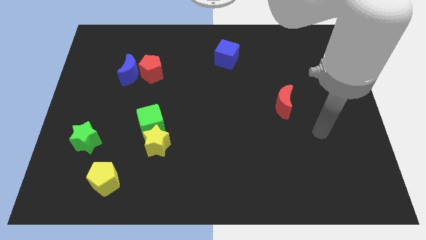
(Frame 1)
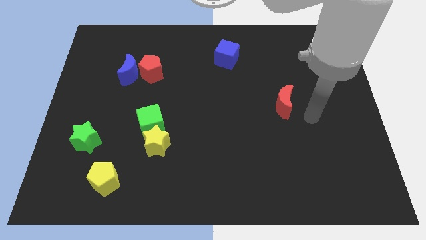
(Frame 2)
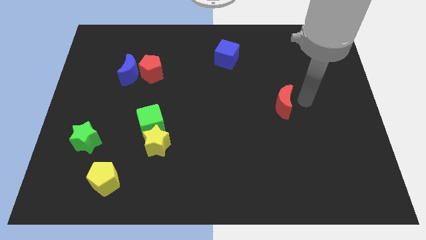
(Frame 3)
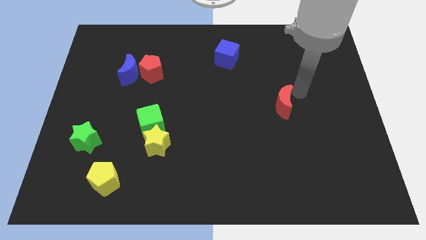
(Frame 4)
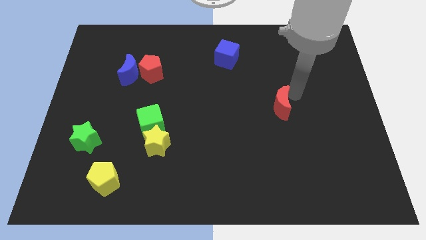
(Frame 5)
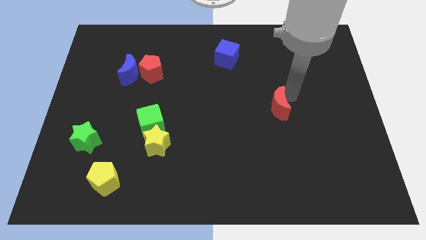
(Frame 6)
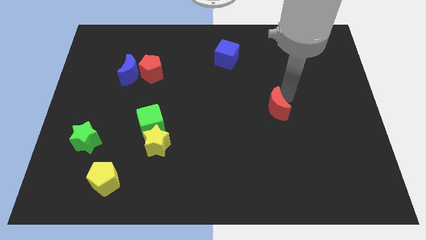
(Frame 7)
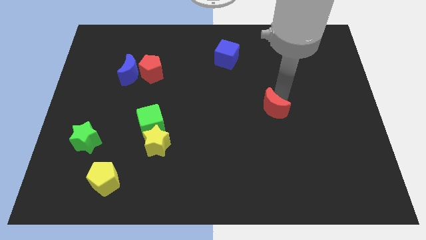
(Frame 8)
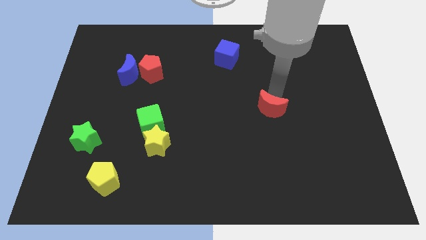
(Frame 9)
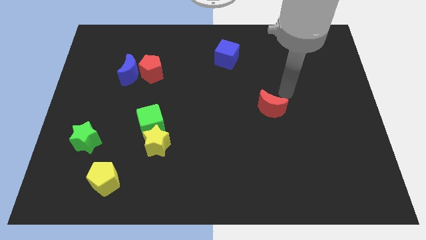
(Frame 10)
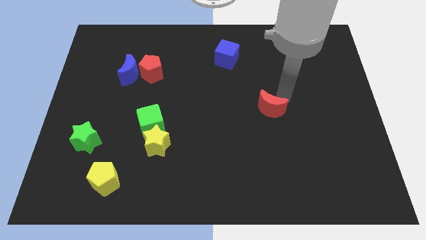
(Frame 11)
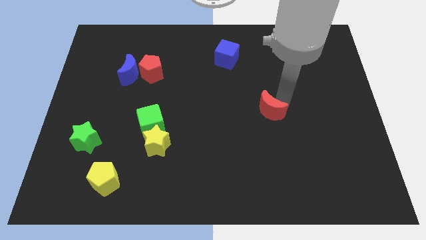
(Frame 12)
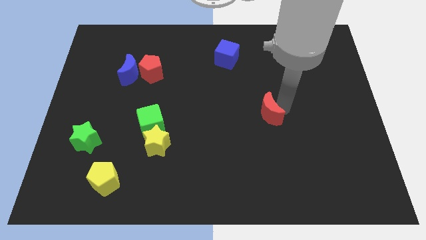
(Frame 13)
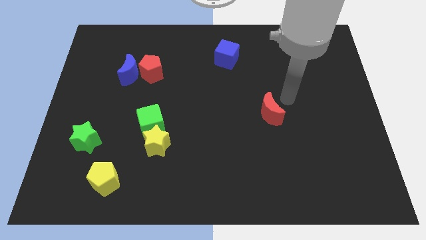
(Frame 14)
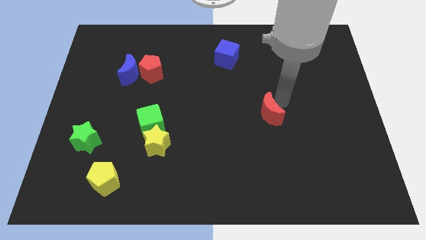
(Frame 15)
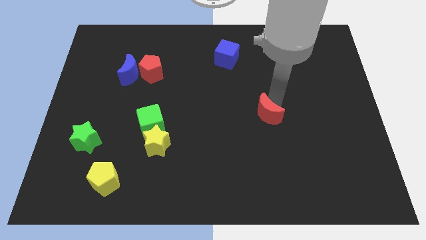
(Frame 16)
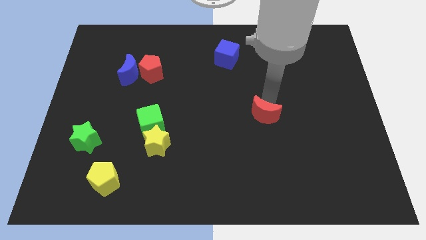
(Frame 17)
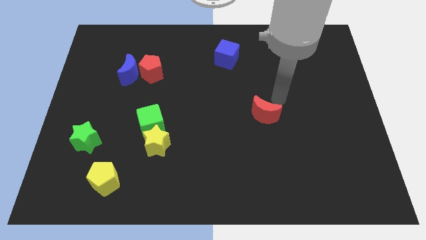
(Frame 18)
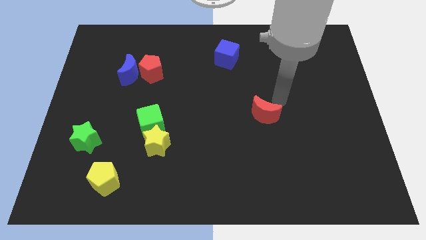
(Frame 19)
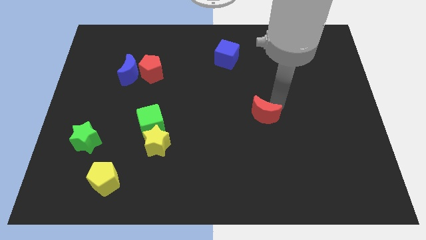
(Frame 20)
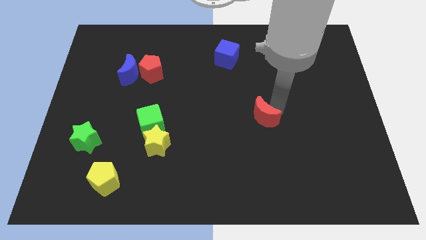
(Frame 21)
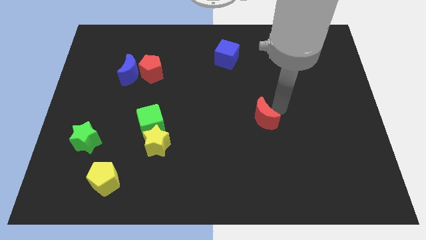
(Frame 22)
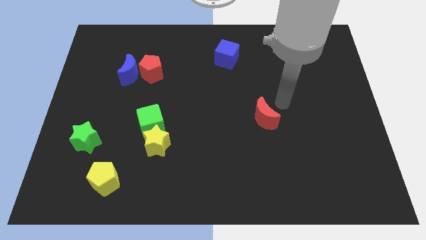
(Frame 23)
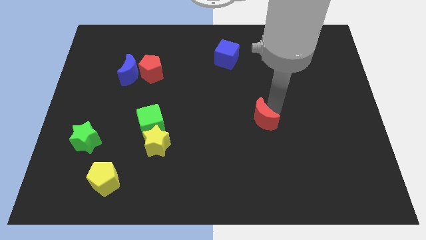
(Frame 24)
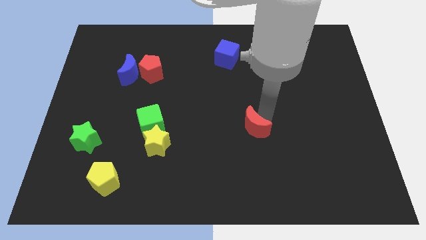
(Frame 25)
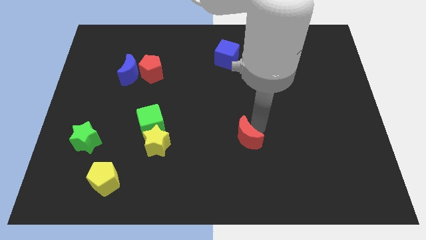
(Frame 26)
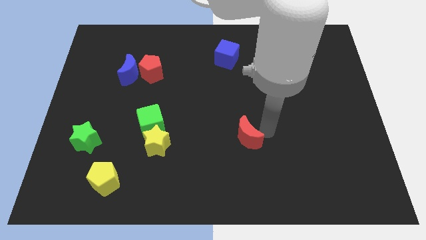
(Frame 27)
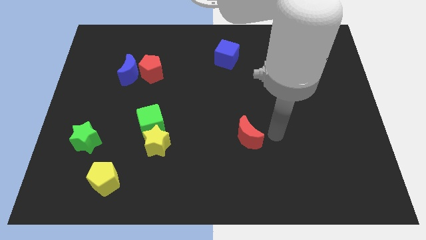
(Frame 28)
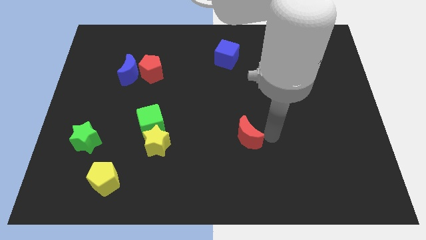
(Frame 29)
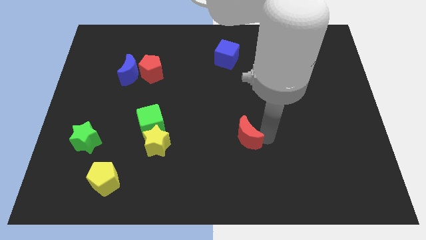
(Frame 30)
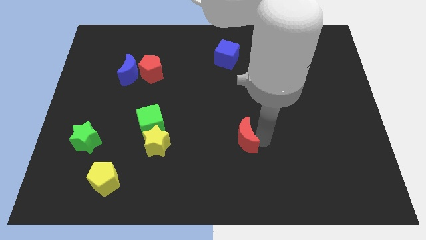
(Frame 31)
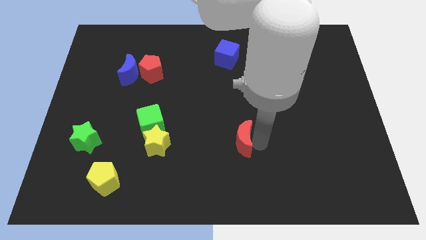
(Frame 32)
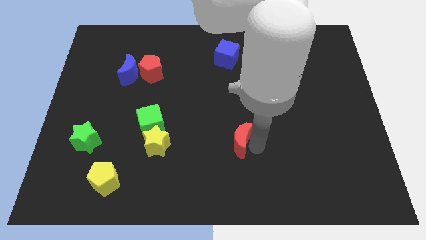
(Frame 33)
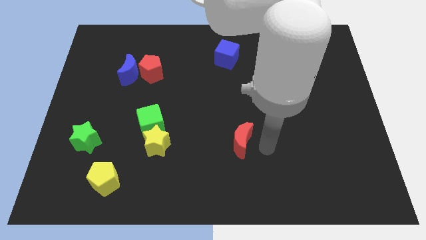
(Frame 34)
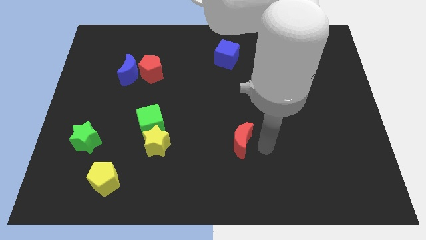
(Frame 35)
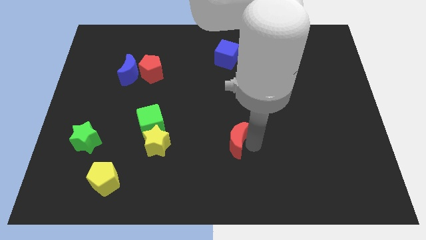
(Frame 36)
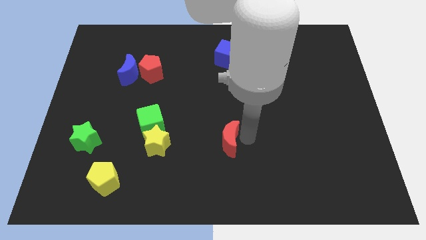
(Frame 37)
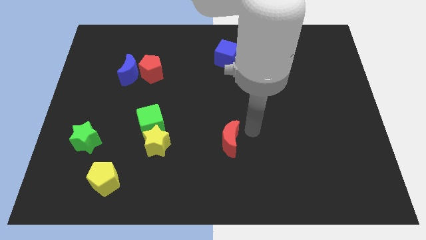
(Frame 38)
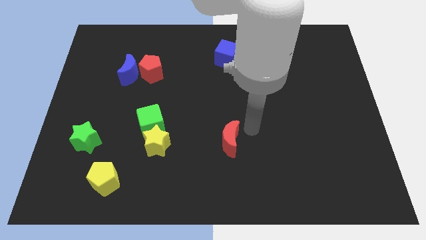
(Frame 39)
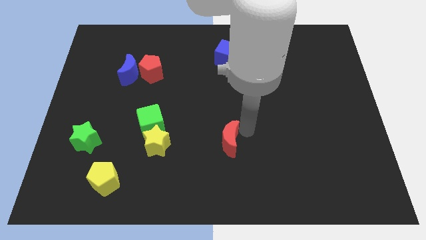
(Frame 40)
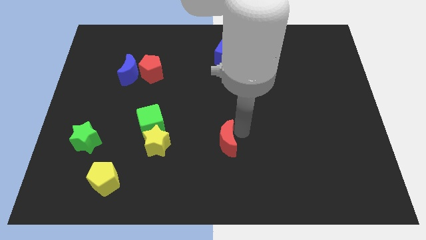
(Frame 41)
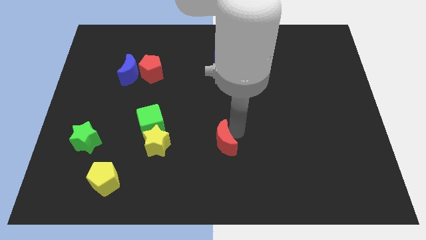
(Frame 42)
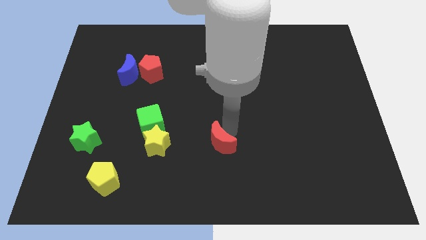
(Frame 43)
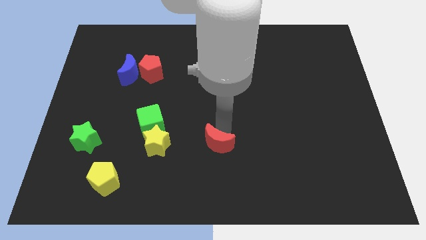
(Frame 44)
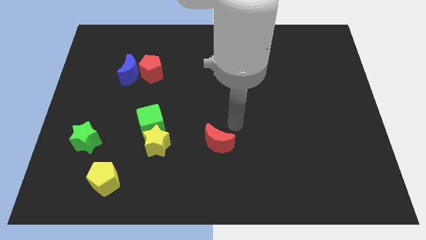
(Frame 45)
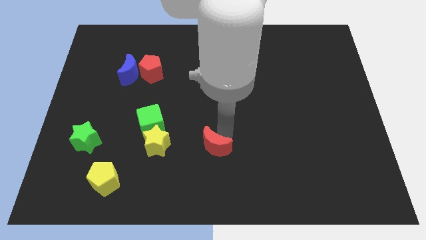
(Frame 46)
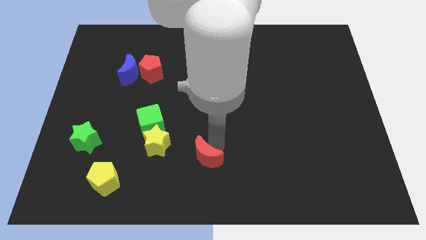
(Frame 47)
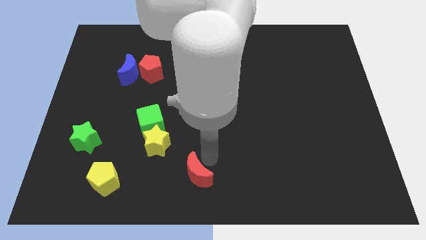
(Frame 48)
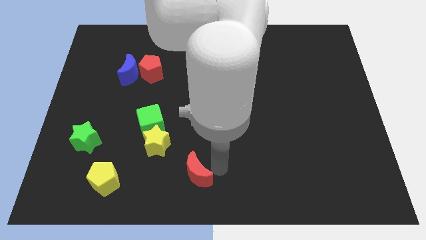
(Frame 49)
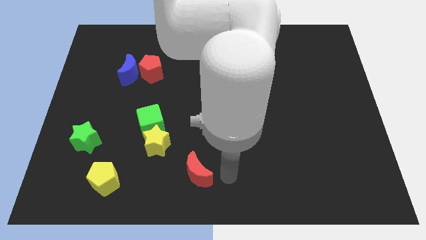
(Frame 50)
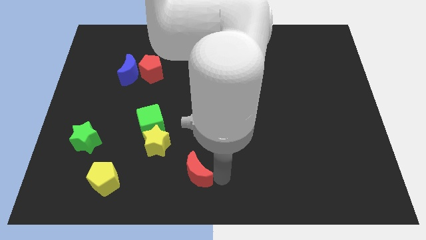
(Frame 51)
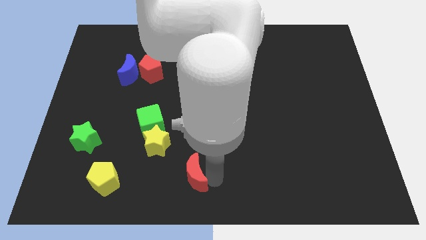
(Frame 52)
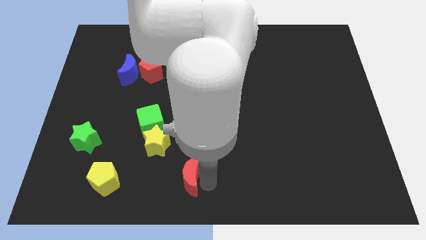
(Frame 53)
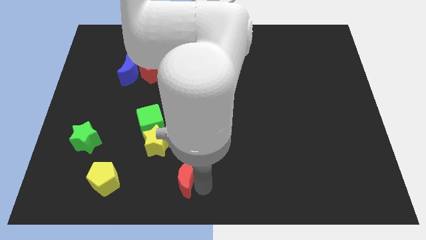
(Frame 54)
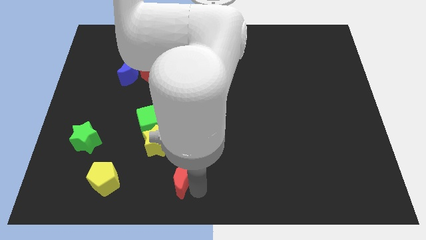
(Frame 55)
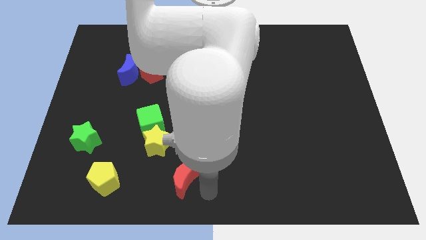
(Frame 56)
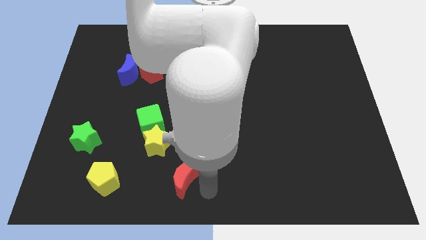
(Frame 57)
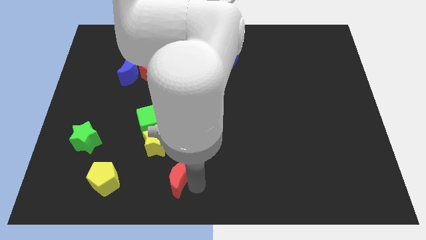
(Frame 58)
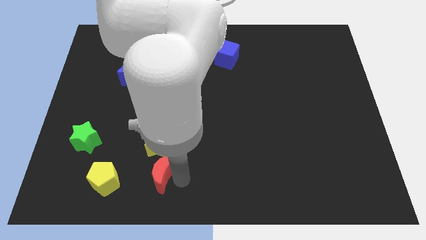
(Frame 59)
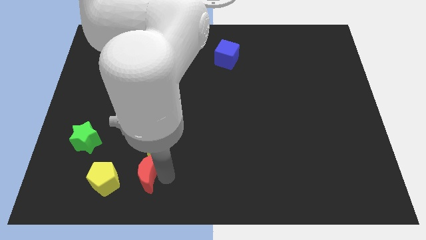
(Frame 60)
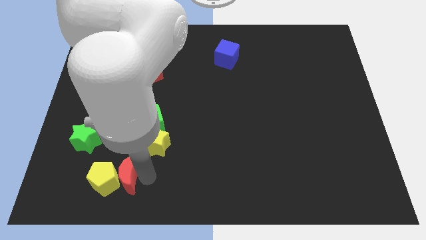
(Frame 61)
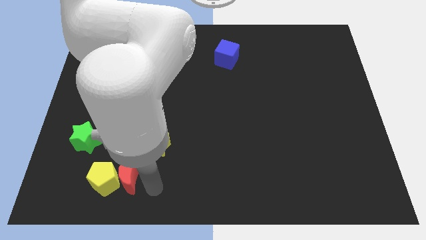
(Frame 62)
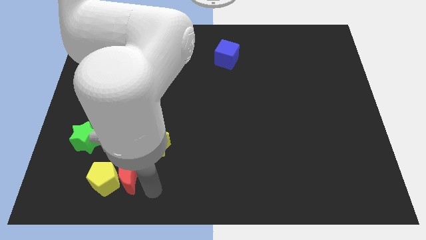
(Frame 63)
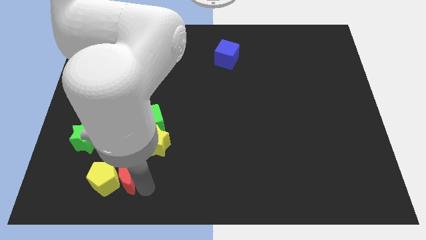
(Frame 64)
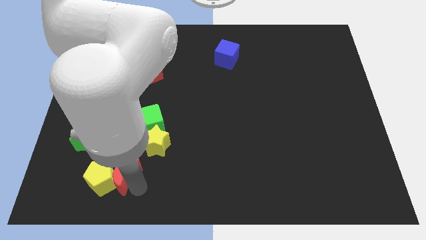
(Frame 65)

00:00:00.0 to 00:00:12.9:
move the red moon to the bottom right side of the green star

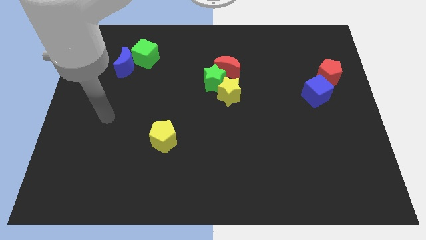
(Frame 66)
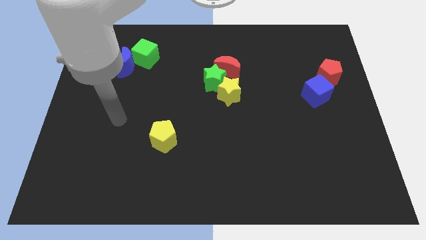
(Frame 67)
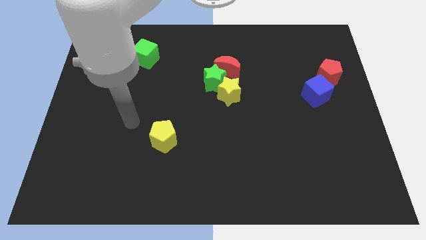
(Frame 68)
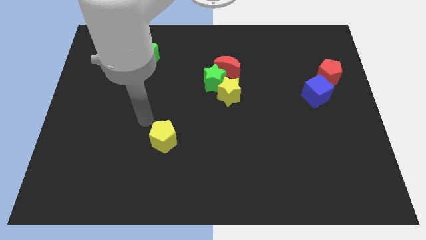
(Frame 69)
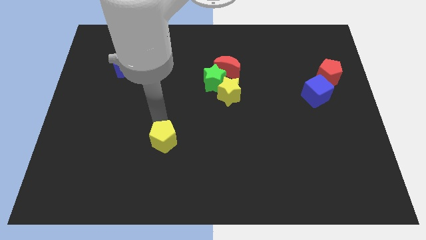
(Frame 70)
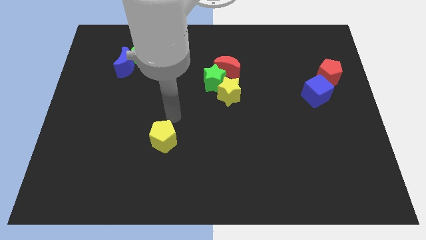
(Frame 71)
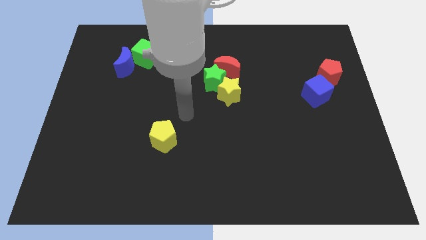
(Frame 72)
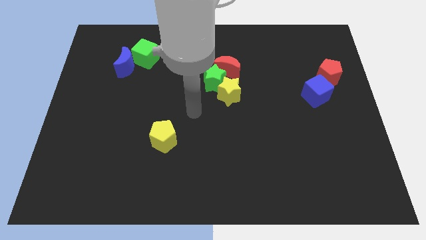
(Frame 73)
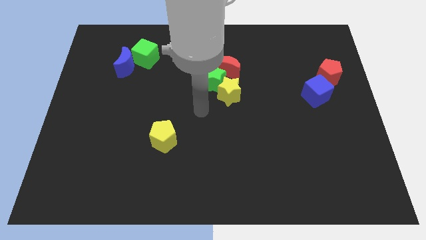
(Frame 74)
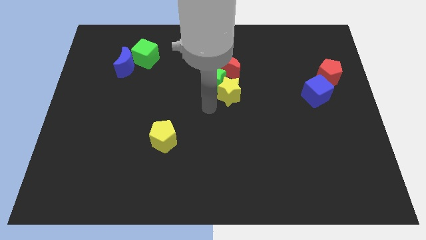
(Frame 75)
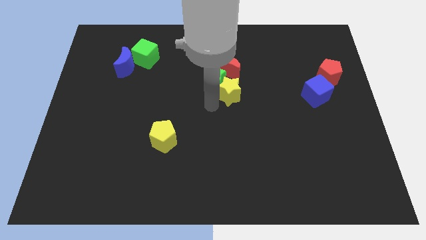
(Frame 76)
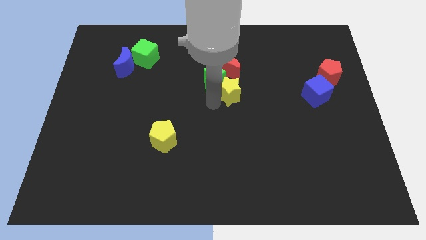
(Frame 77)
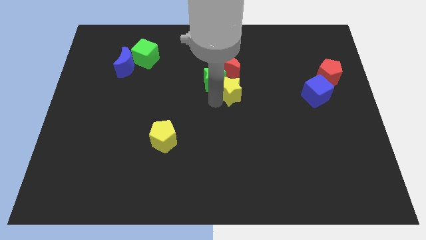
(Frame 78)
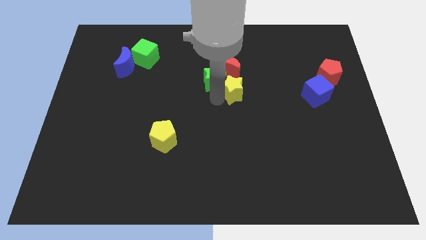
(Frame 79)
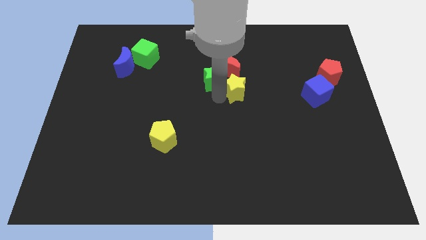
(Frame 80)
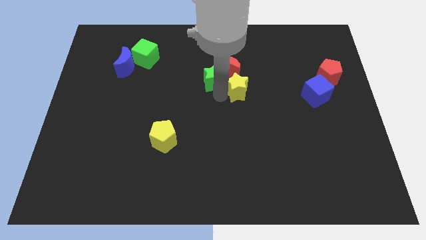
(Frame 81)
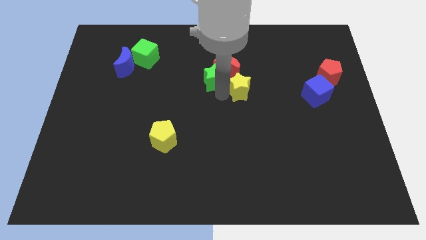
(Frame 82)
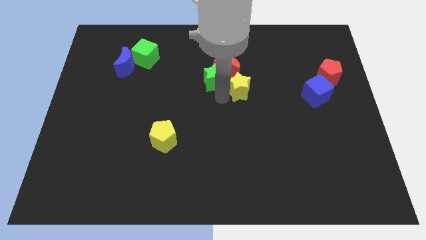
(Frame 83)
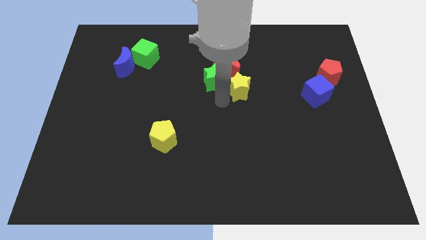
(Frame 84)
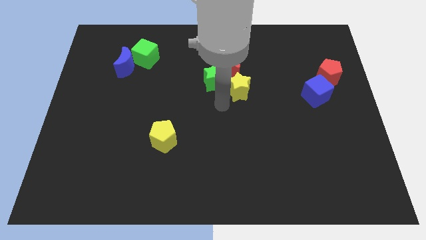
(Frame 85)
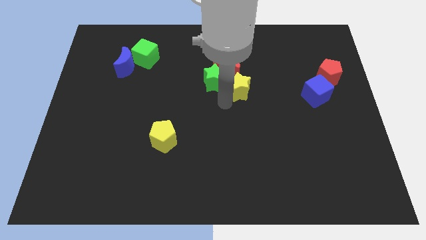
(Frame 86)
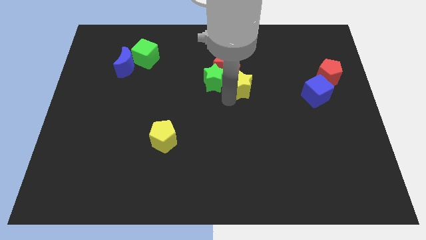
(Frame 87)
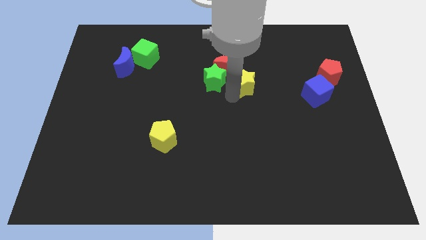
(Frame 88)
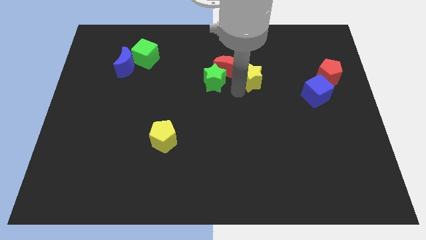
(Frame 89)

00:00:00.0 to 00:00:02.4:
move the yellow star to the right of the red moon
